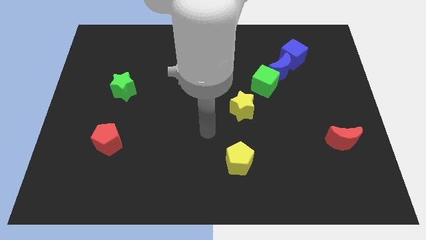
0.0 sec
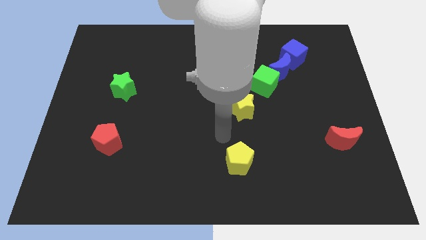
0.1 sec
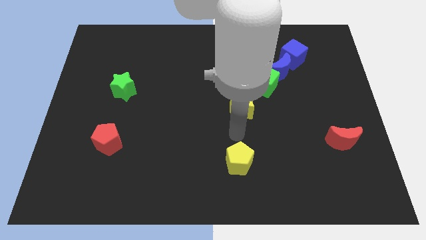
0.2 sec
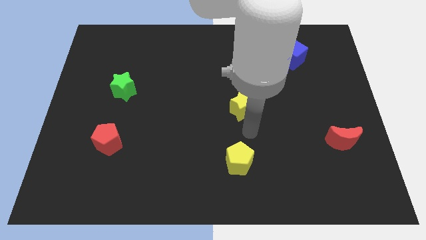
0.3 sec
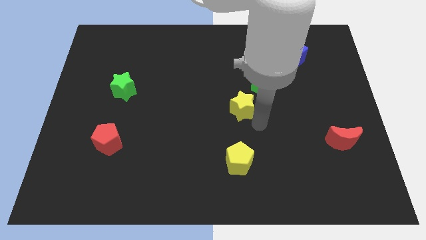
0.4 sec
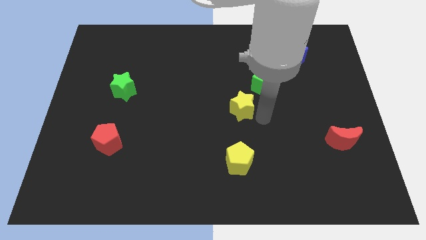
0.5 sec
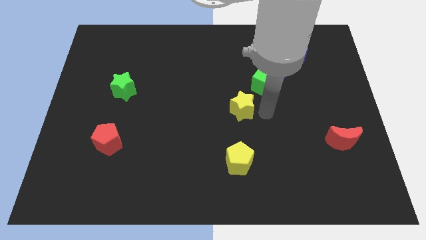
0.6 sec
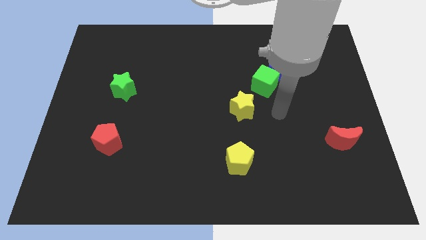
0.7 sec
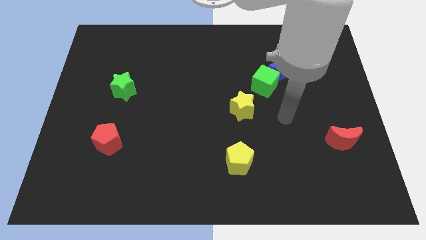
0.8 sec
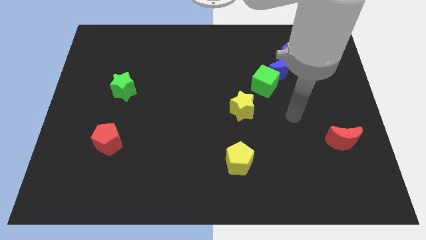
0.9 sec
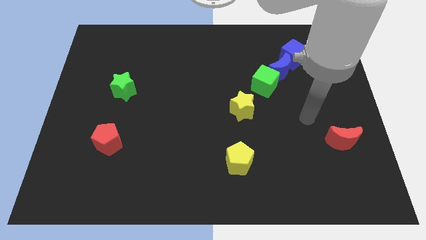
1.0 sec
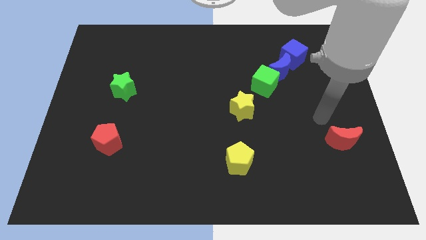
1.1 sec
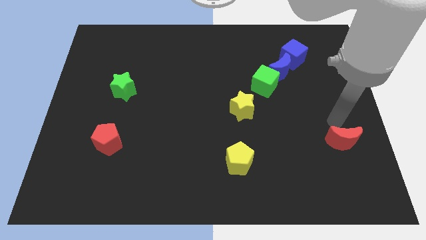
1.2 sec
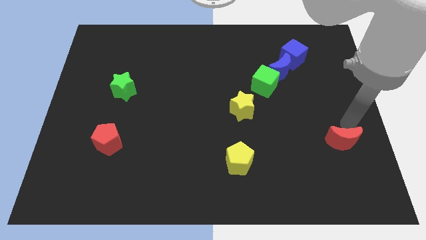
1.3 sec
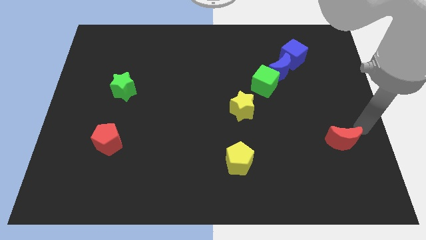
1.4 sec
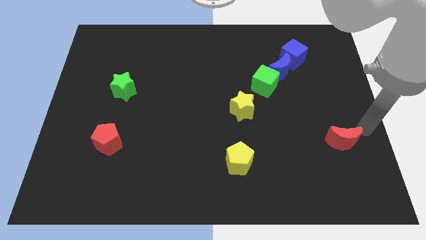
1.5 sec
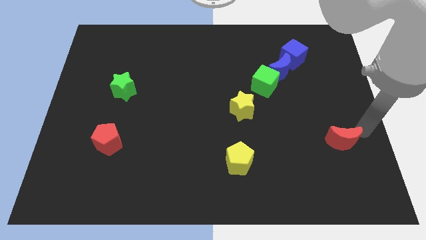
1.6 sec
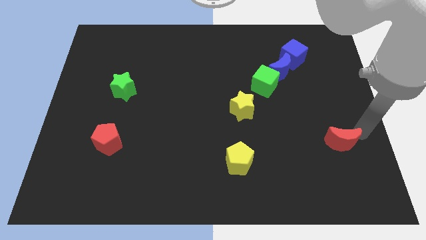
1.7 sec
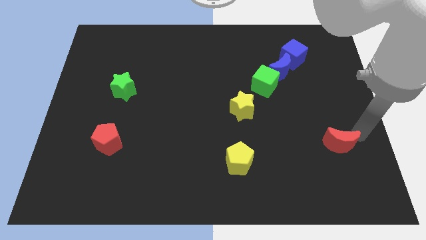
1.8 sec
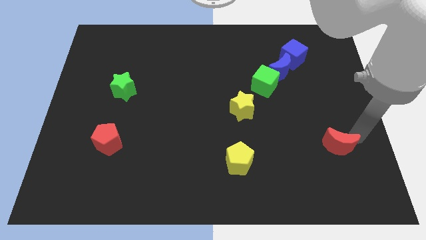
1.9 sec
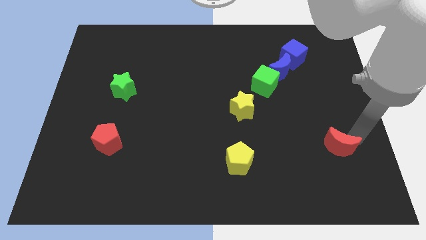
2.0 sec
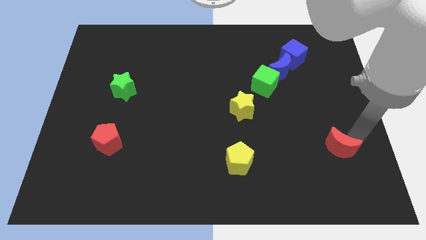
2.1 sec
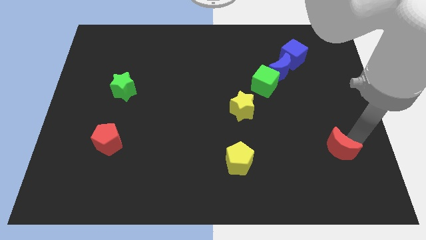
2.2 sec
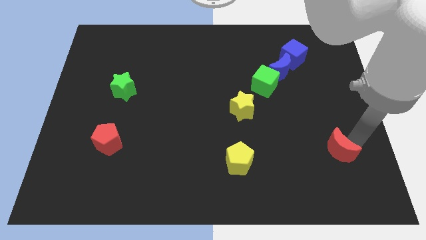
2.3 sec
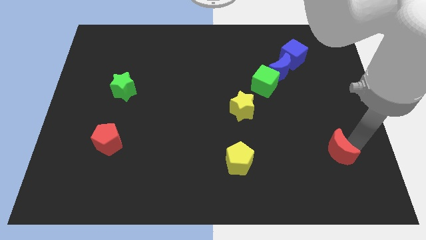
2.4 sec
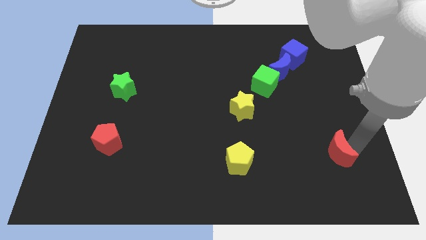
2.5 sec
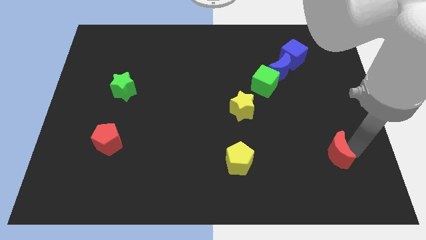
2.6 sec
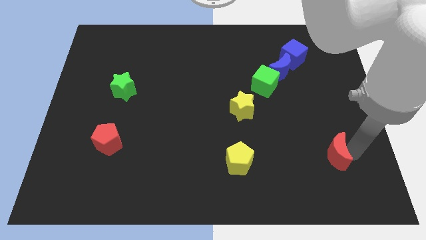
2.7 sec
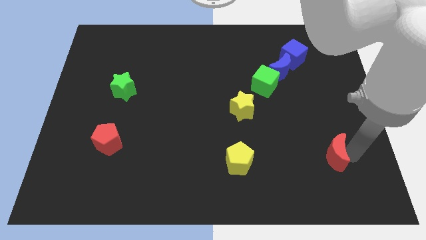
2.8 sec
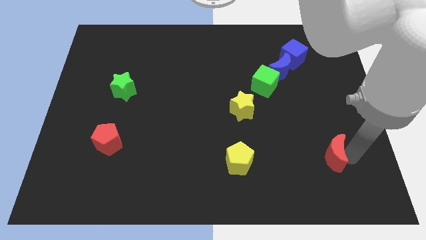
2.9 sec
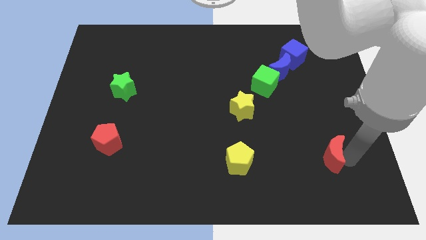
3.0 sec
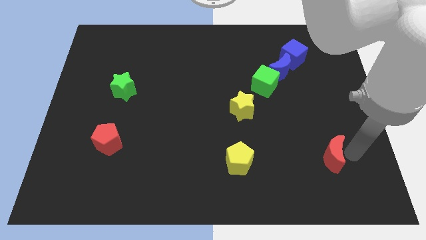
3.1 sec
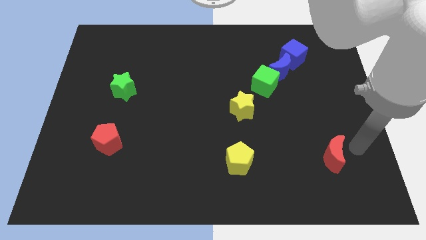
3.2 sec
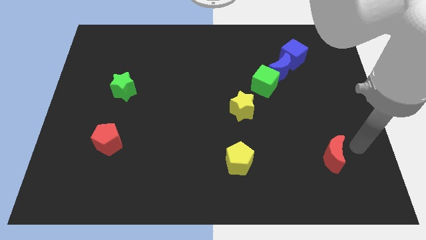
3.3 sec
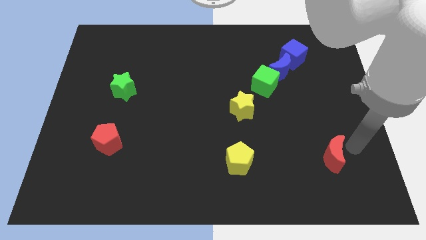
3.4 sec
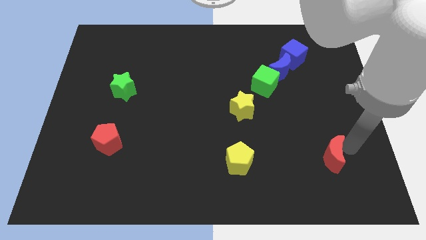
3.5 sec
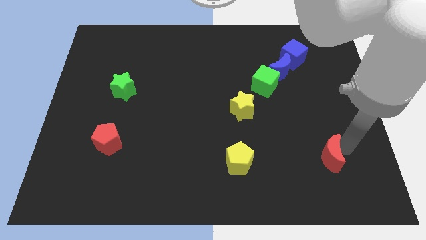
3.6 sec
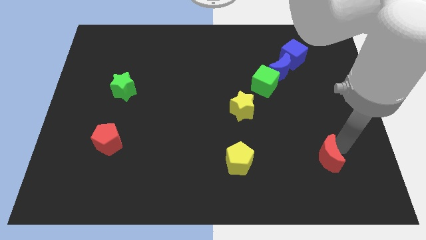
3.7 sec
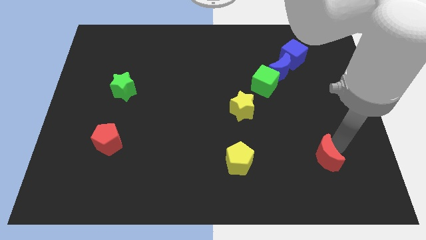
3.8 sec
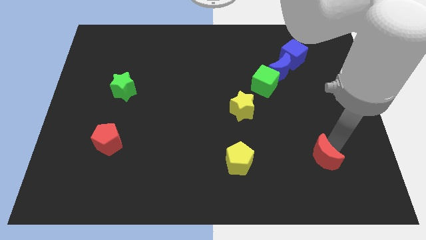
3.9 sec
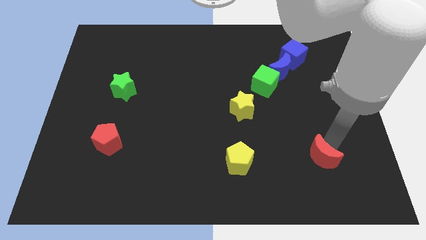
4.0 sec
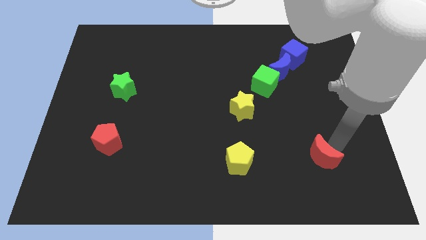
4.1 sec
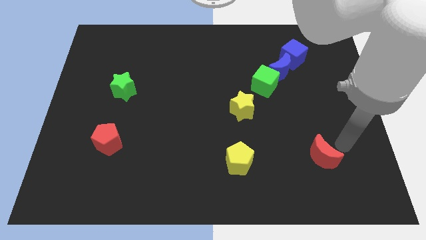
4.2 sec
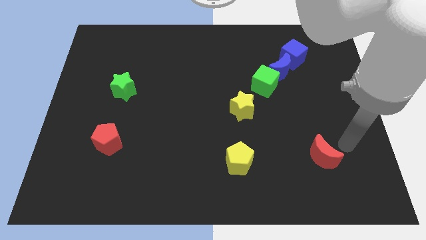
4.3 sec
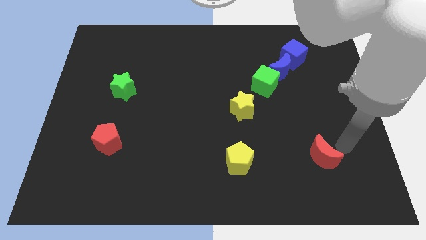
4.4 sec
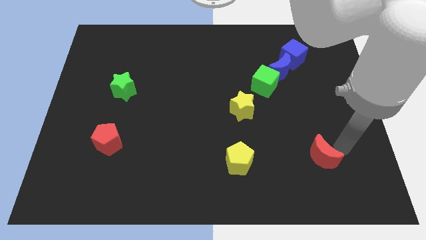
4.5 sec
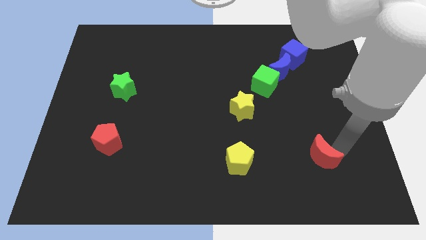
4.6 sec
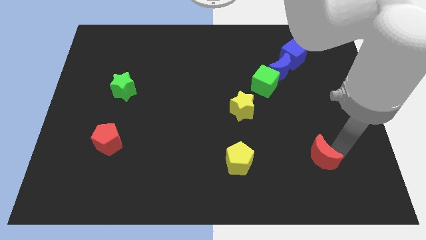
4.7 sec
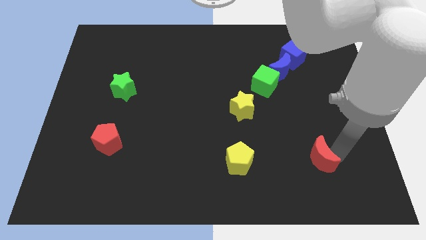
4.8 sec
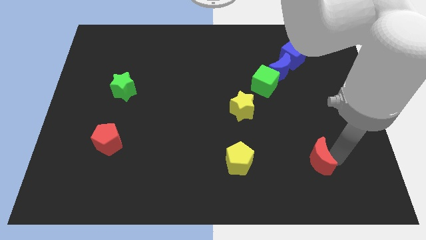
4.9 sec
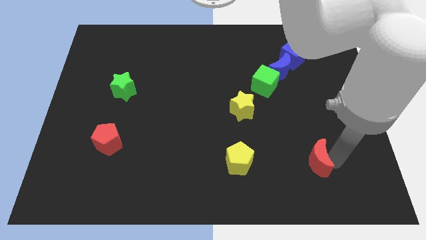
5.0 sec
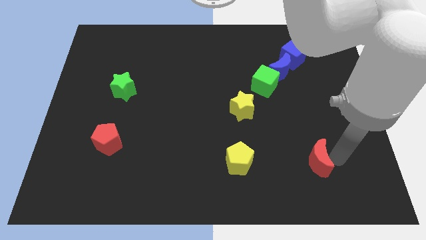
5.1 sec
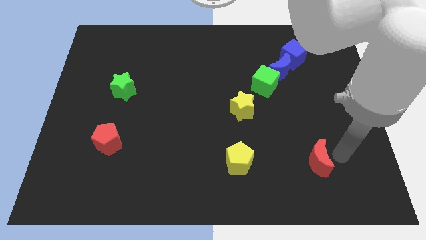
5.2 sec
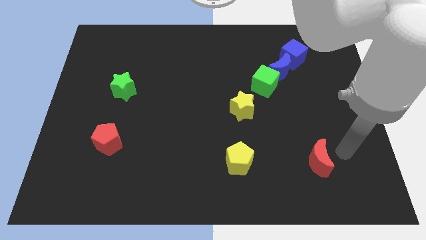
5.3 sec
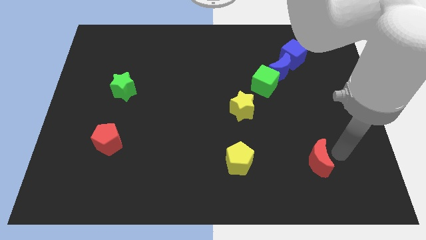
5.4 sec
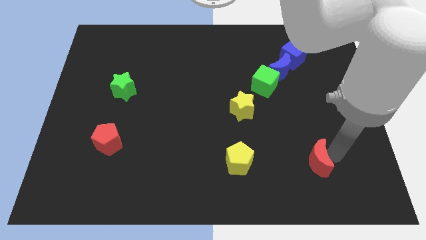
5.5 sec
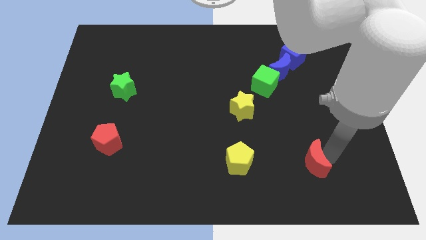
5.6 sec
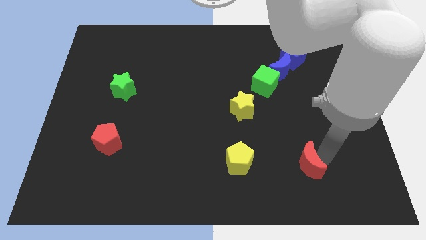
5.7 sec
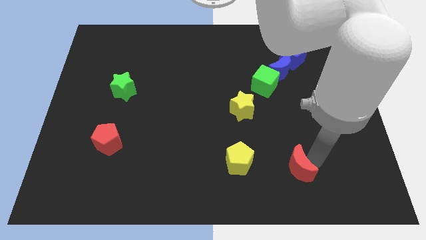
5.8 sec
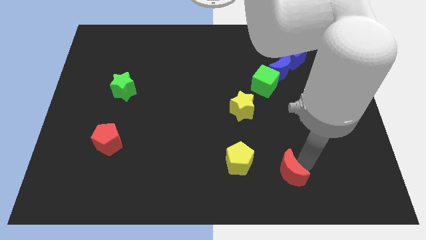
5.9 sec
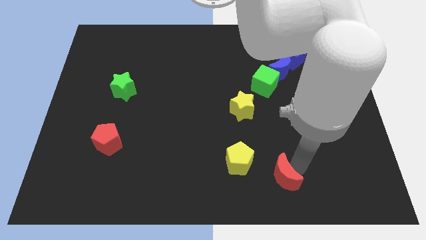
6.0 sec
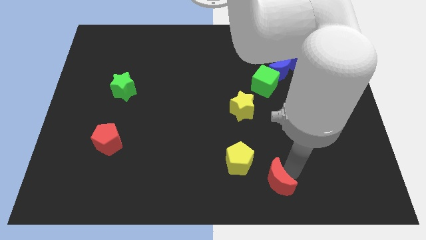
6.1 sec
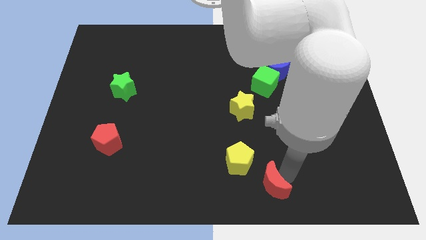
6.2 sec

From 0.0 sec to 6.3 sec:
put the red moon to the bottom side
